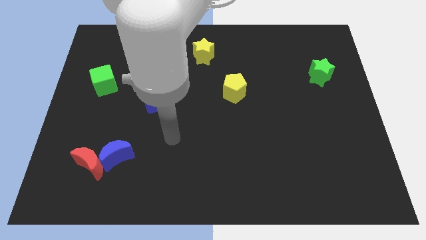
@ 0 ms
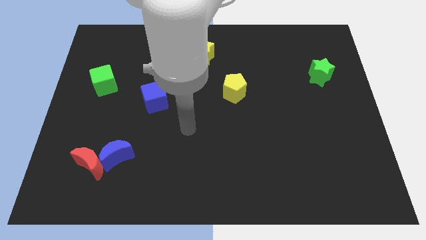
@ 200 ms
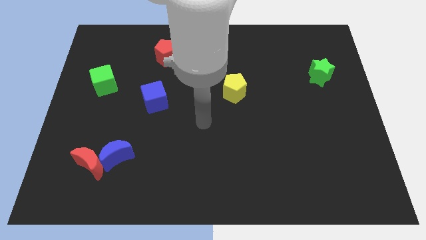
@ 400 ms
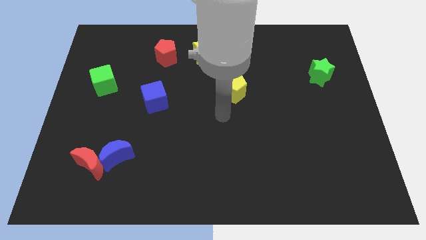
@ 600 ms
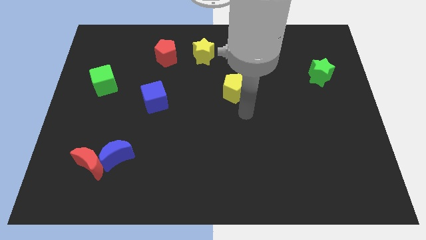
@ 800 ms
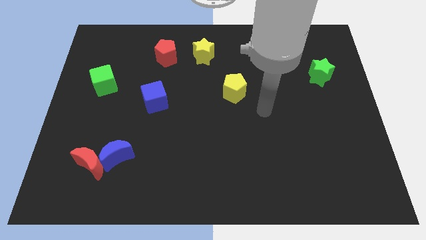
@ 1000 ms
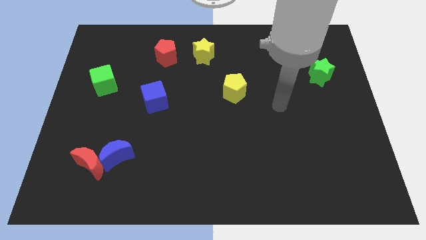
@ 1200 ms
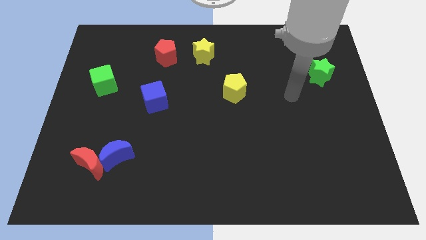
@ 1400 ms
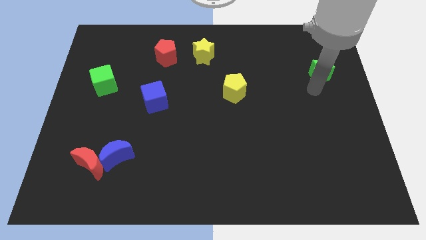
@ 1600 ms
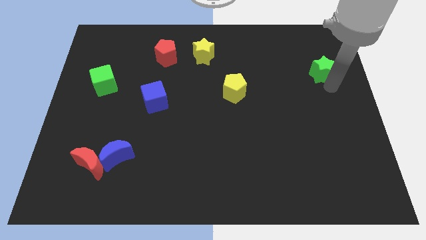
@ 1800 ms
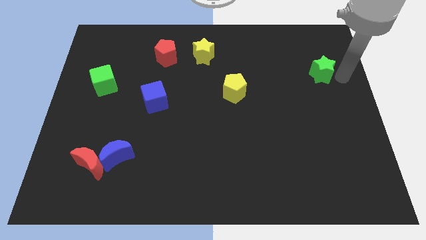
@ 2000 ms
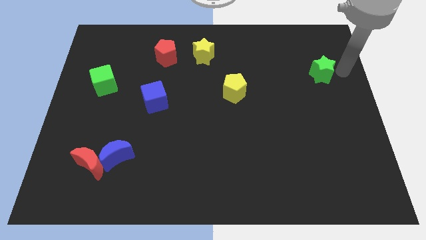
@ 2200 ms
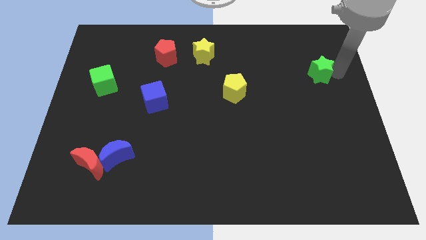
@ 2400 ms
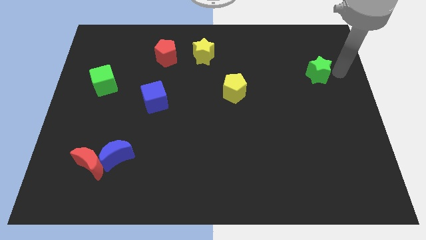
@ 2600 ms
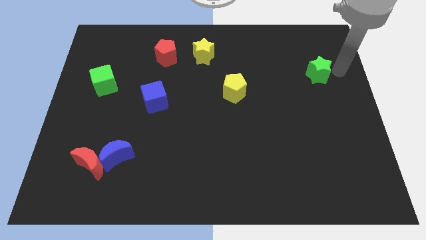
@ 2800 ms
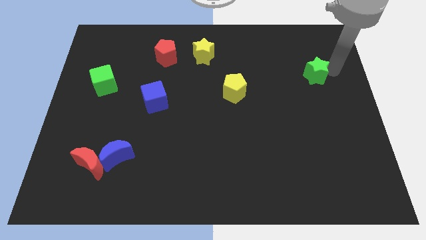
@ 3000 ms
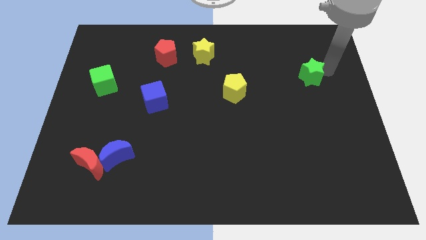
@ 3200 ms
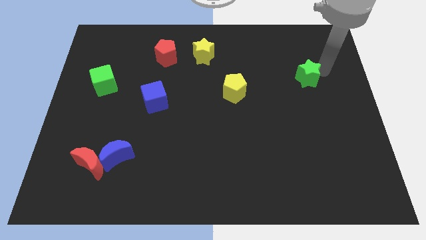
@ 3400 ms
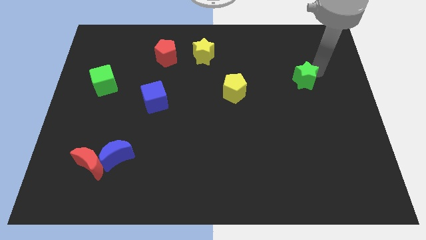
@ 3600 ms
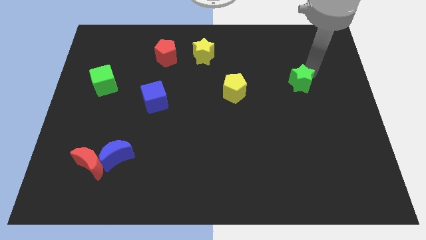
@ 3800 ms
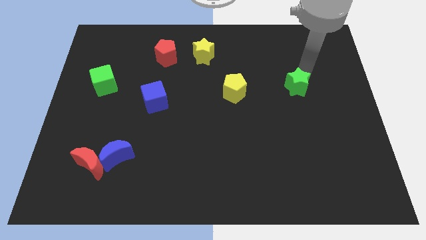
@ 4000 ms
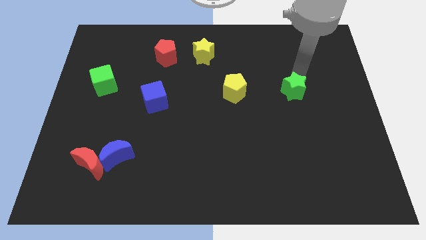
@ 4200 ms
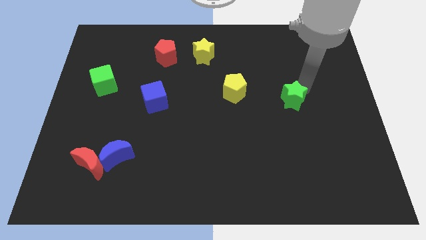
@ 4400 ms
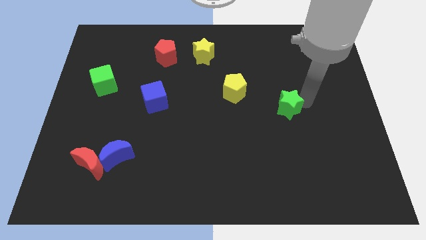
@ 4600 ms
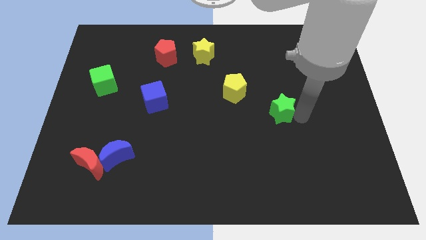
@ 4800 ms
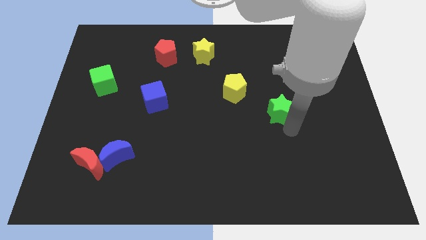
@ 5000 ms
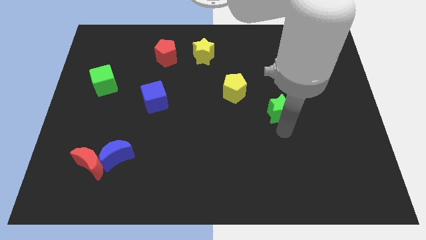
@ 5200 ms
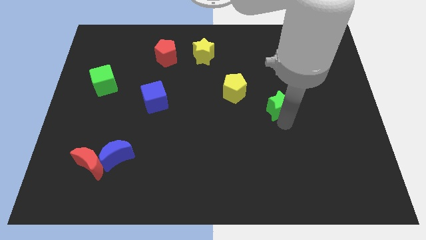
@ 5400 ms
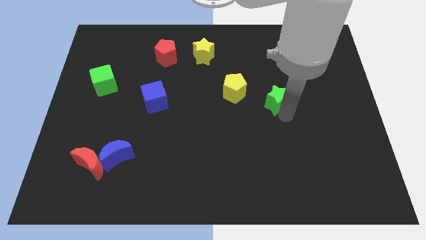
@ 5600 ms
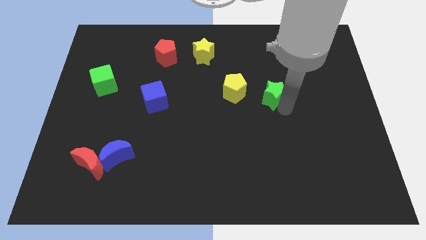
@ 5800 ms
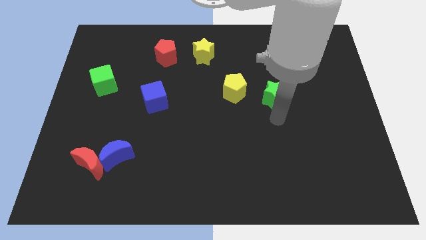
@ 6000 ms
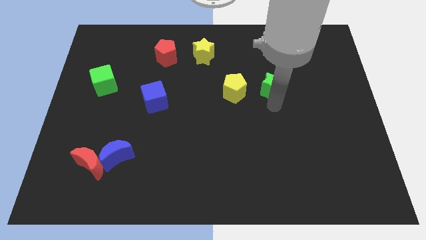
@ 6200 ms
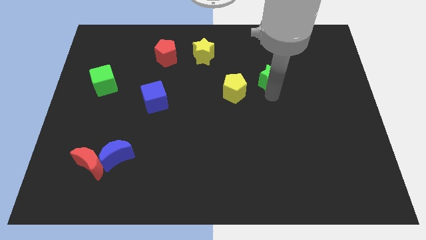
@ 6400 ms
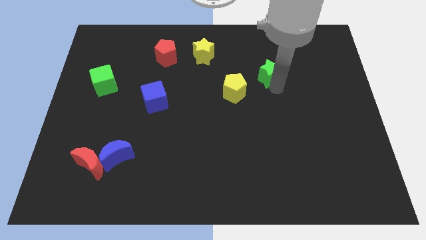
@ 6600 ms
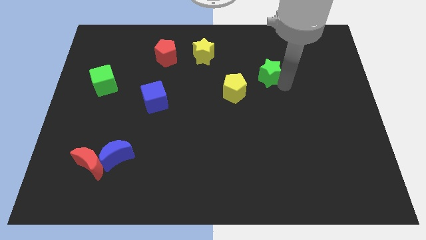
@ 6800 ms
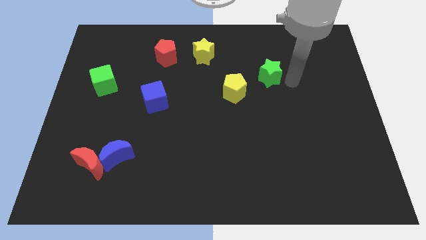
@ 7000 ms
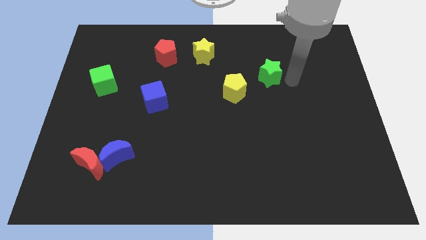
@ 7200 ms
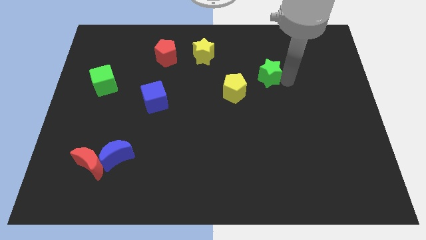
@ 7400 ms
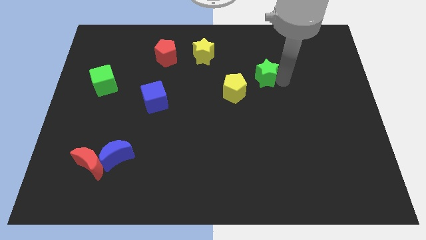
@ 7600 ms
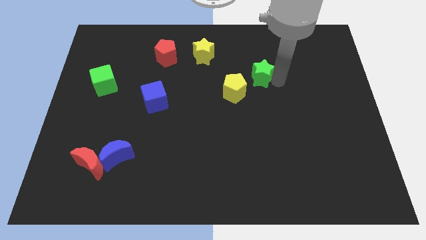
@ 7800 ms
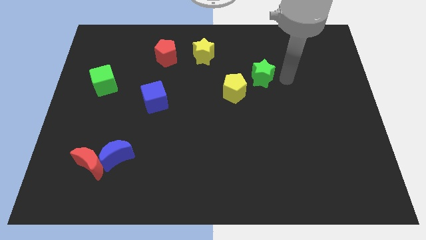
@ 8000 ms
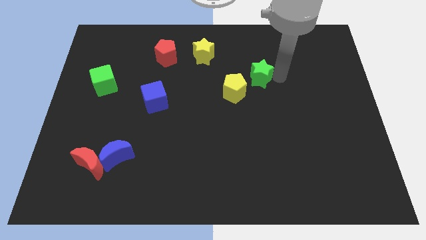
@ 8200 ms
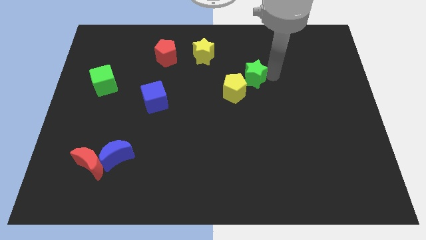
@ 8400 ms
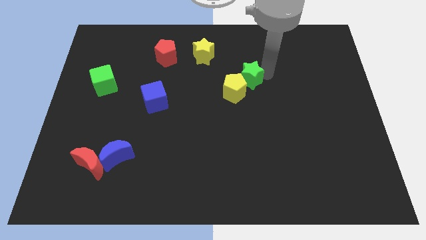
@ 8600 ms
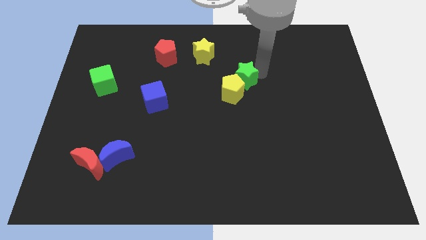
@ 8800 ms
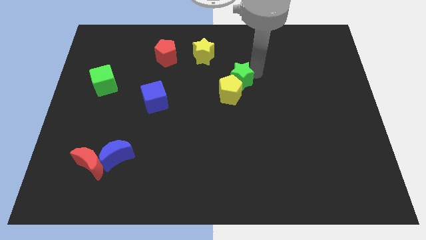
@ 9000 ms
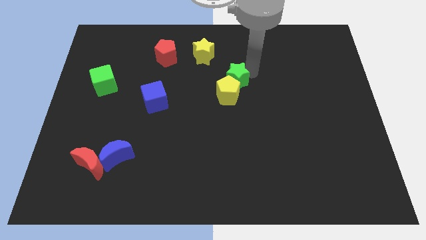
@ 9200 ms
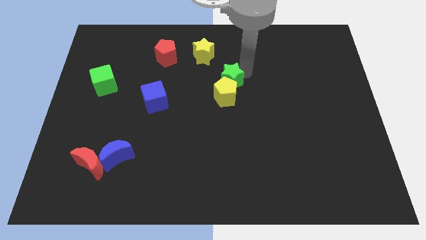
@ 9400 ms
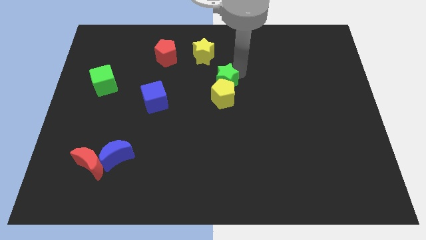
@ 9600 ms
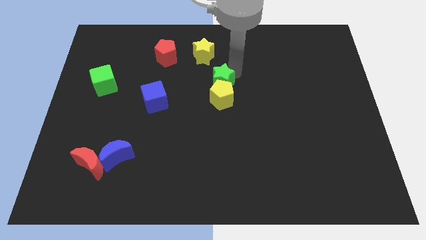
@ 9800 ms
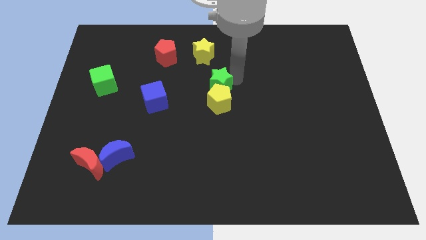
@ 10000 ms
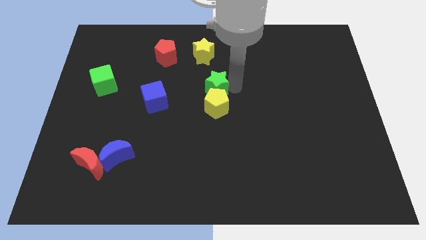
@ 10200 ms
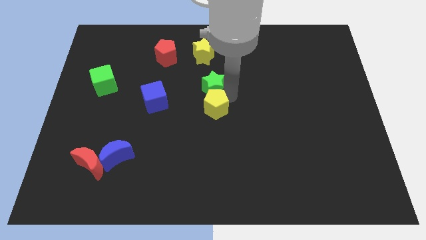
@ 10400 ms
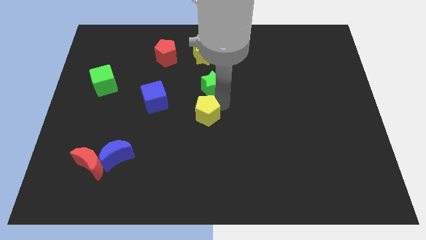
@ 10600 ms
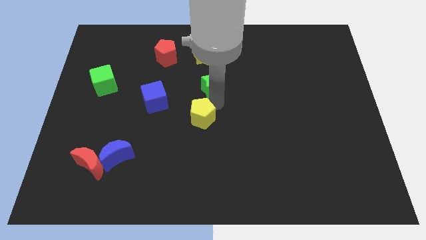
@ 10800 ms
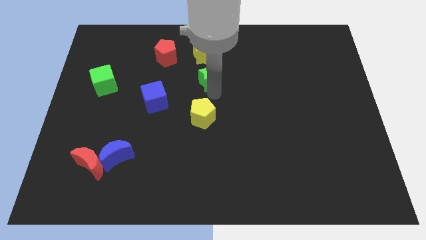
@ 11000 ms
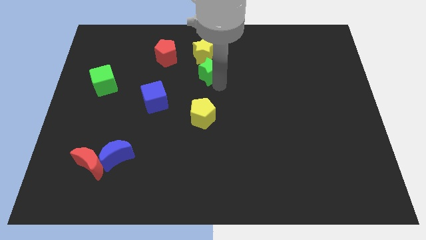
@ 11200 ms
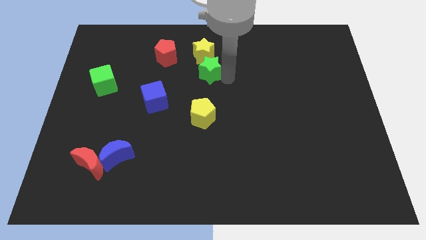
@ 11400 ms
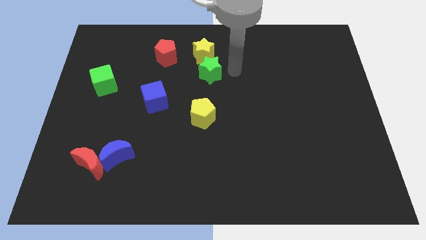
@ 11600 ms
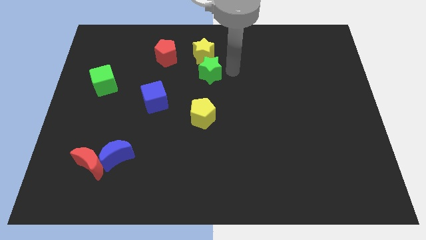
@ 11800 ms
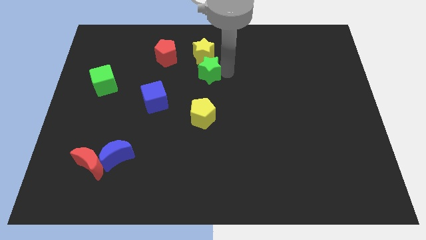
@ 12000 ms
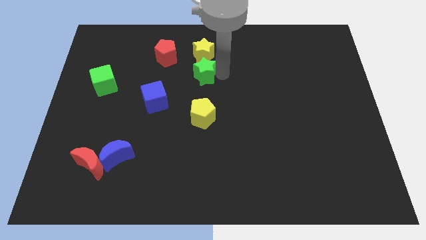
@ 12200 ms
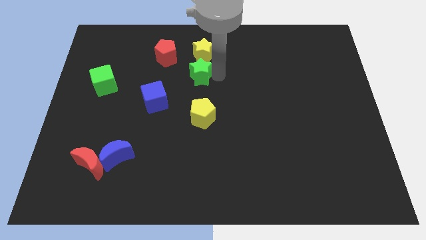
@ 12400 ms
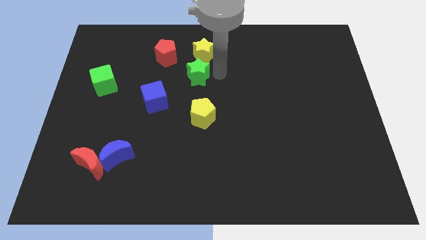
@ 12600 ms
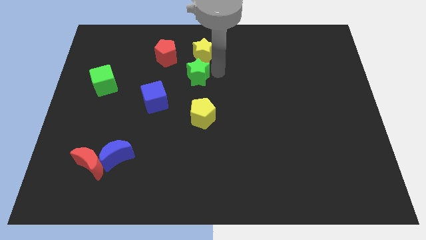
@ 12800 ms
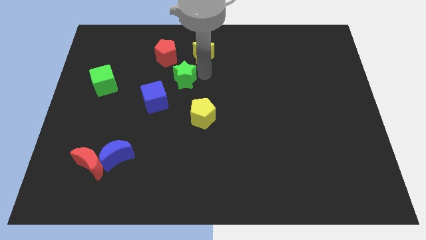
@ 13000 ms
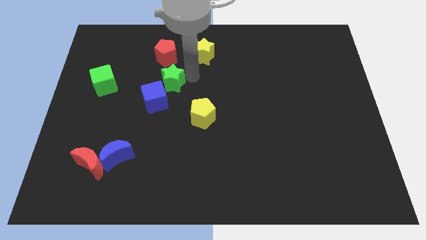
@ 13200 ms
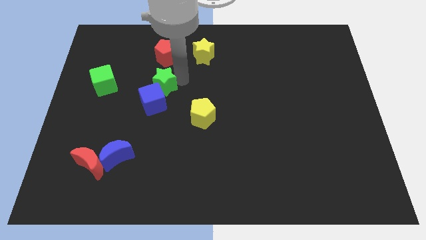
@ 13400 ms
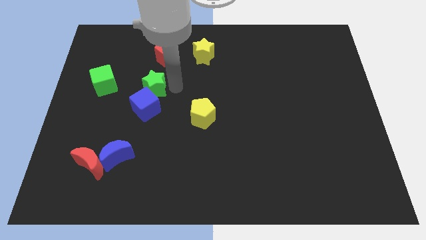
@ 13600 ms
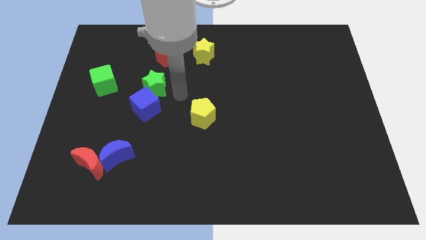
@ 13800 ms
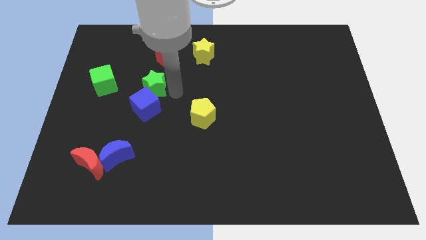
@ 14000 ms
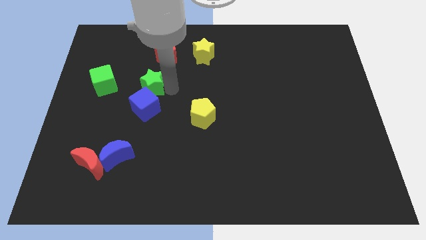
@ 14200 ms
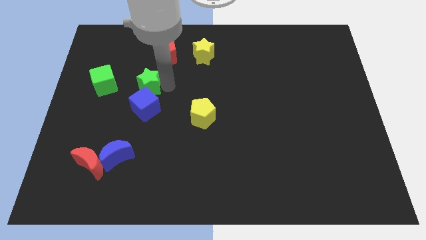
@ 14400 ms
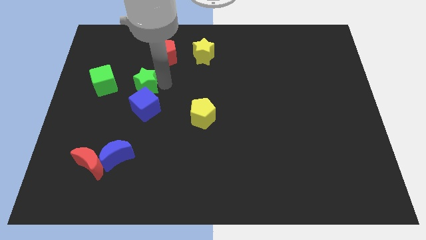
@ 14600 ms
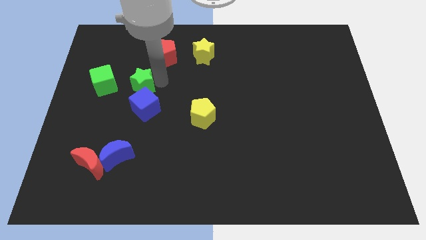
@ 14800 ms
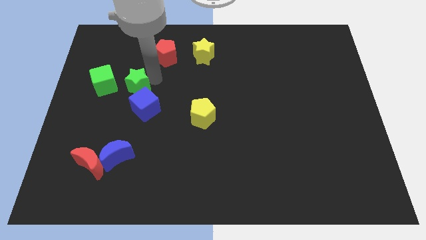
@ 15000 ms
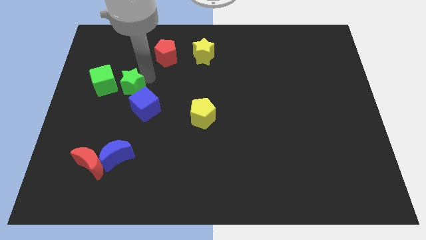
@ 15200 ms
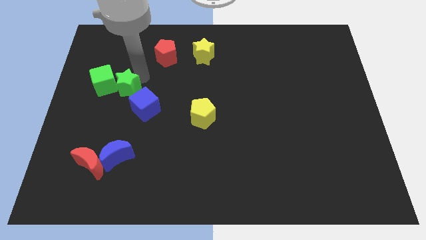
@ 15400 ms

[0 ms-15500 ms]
put the green star to the green cube
